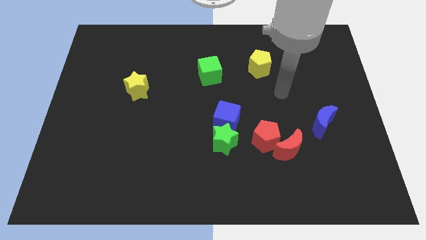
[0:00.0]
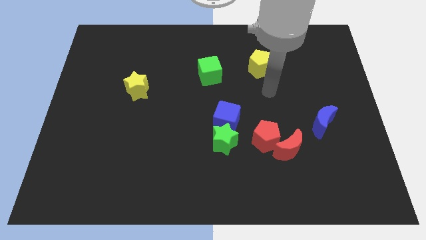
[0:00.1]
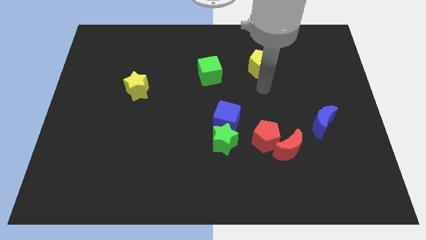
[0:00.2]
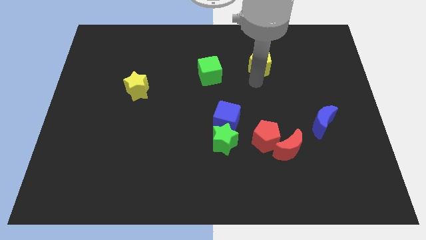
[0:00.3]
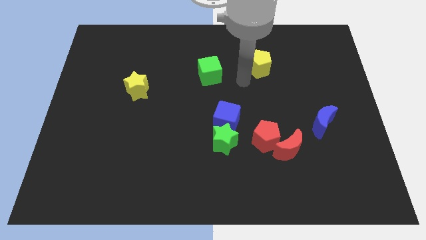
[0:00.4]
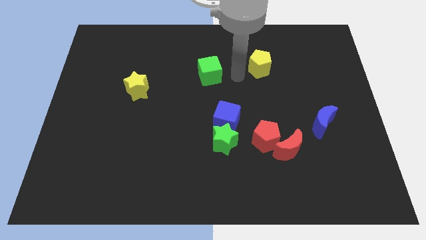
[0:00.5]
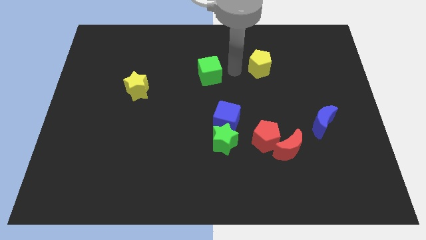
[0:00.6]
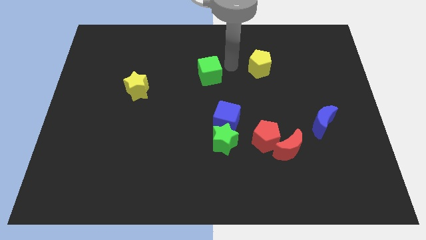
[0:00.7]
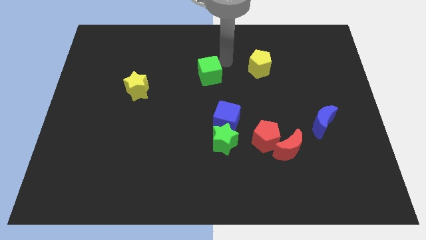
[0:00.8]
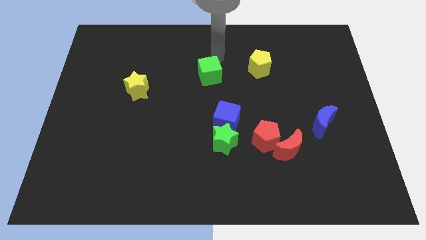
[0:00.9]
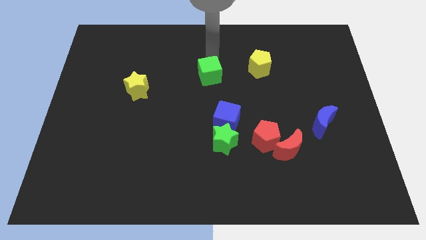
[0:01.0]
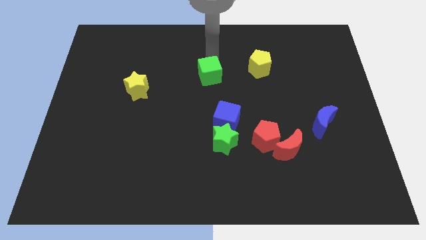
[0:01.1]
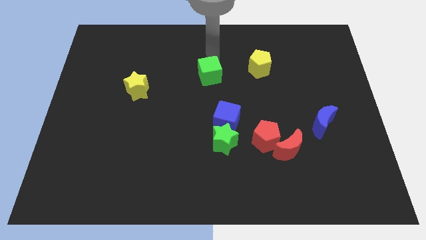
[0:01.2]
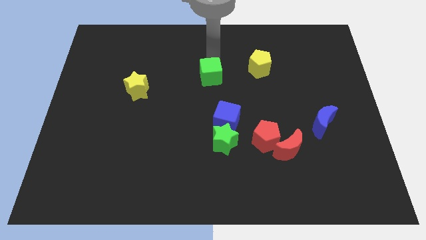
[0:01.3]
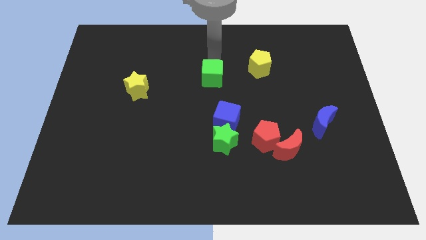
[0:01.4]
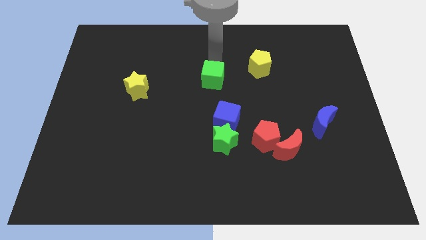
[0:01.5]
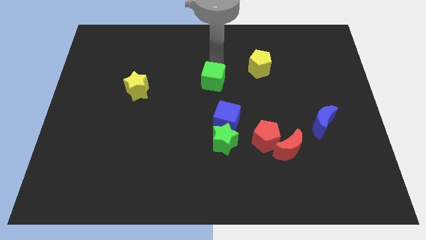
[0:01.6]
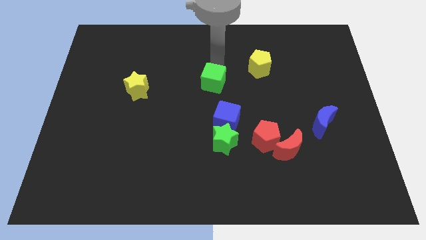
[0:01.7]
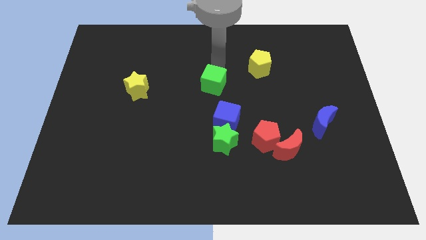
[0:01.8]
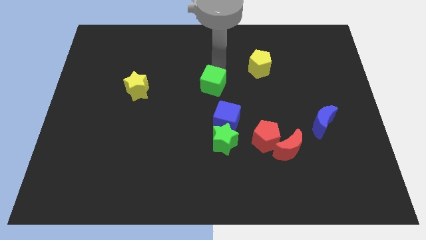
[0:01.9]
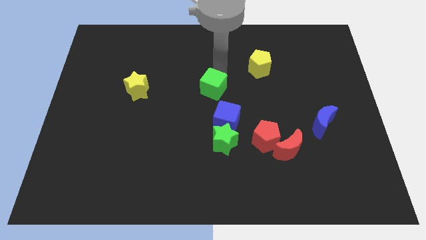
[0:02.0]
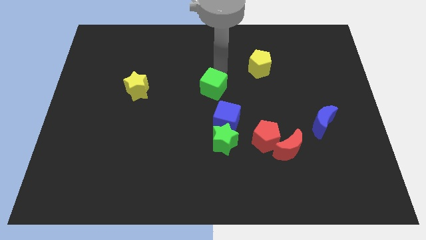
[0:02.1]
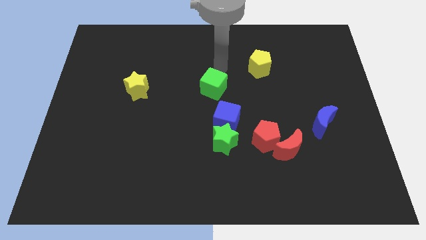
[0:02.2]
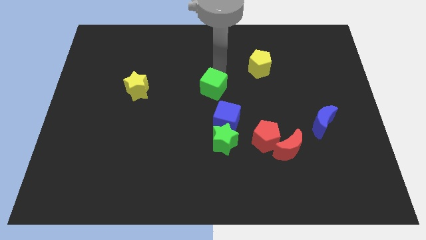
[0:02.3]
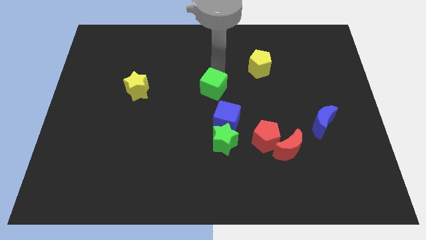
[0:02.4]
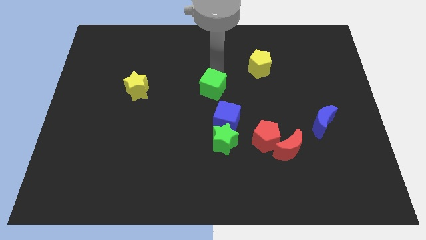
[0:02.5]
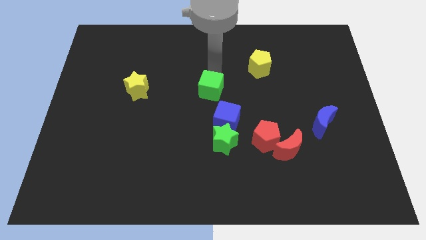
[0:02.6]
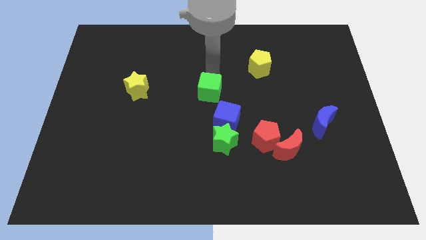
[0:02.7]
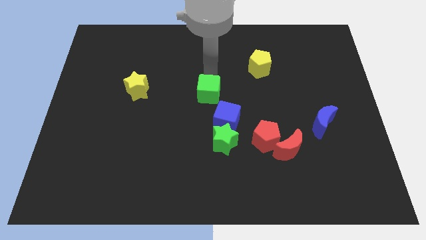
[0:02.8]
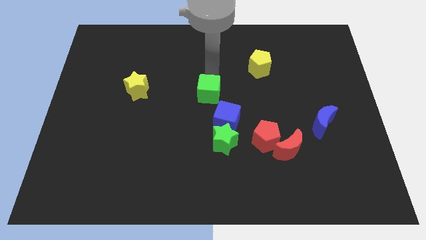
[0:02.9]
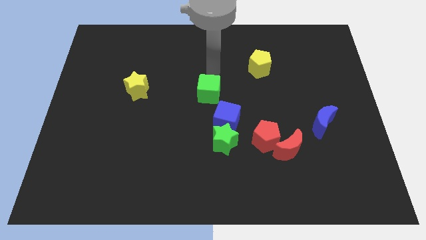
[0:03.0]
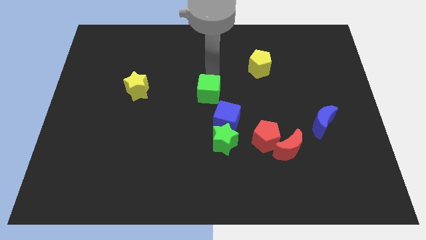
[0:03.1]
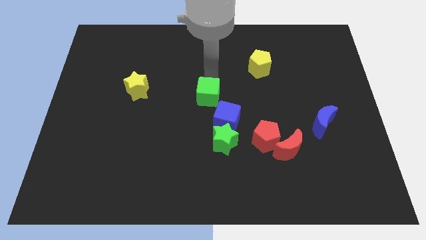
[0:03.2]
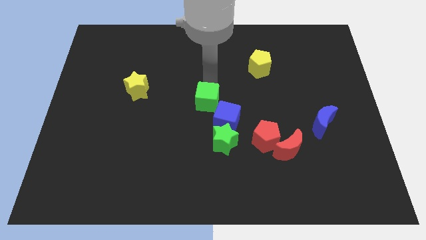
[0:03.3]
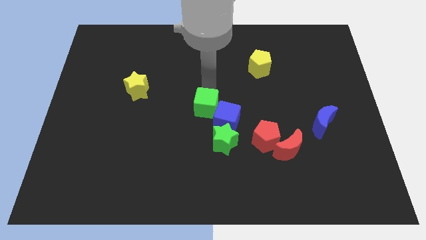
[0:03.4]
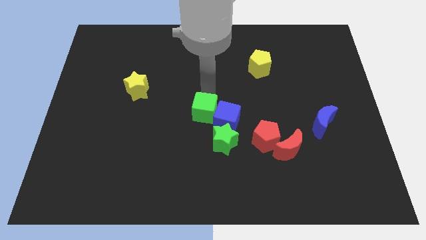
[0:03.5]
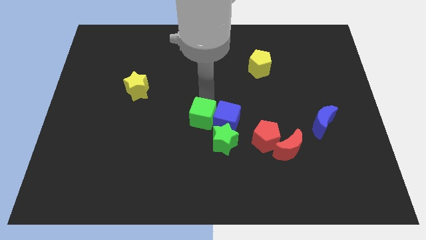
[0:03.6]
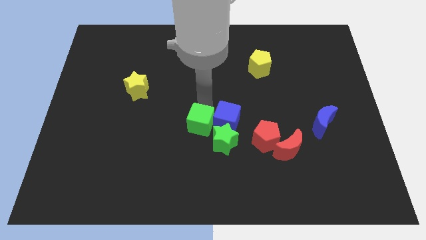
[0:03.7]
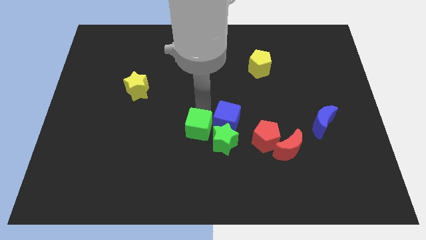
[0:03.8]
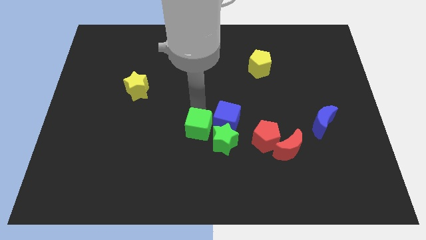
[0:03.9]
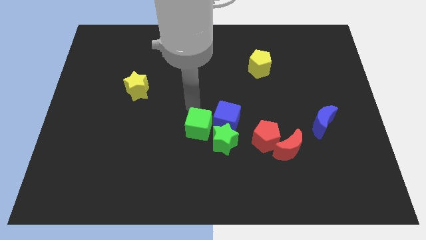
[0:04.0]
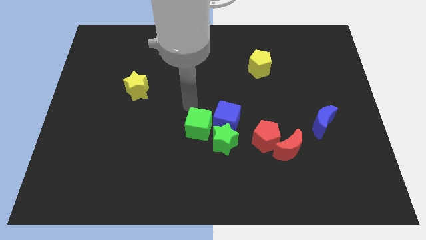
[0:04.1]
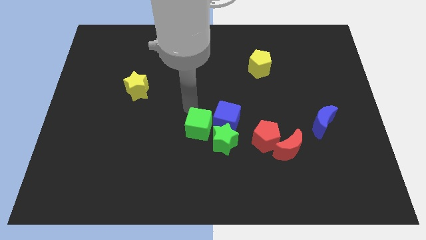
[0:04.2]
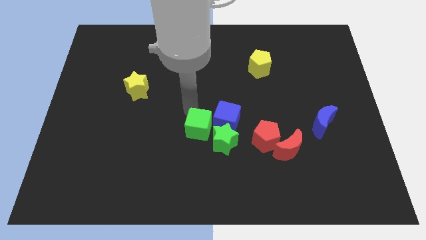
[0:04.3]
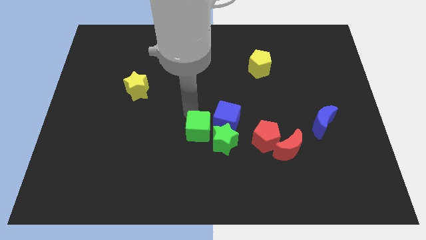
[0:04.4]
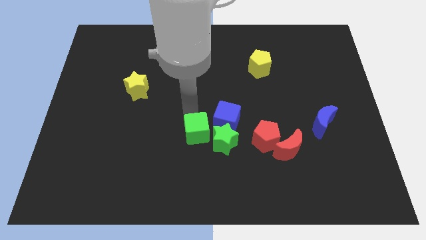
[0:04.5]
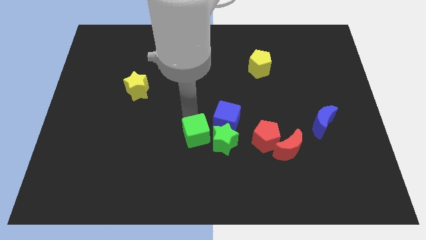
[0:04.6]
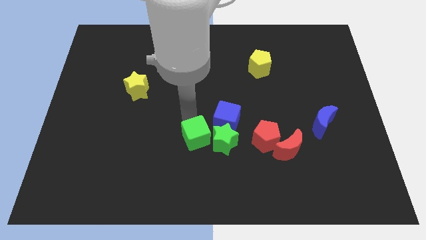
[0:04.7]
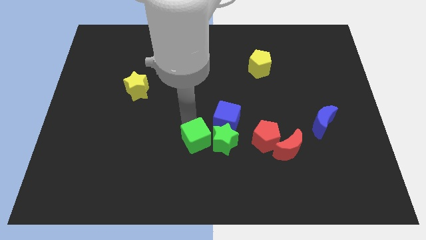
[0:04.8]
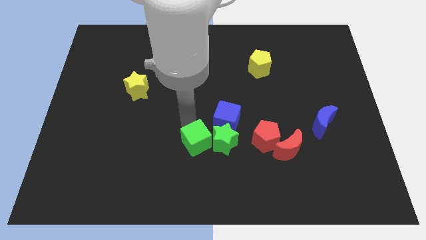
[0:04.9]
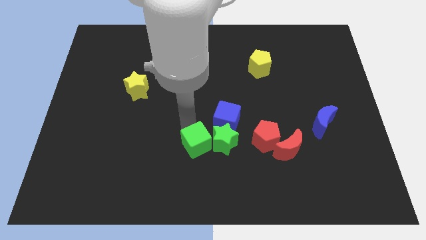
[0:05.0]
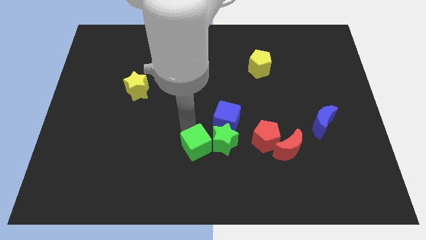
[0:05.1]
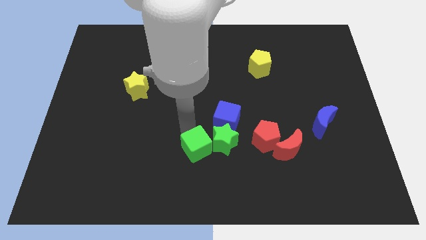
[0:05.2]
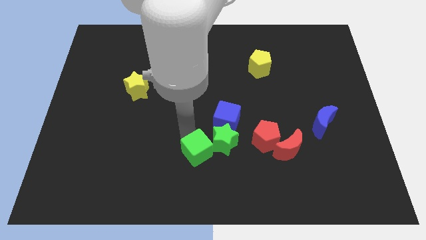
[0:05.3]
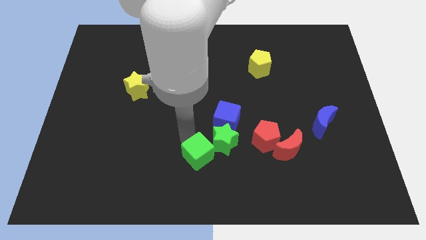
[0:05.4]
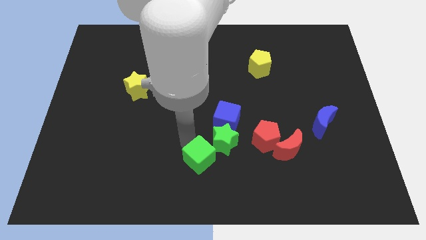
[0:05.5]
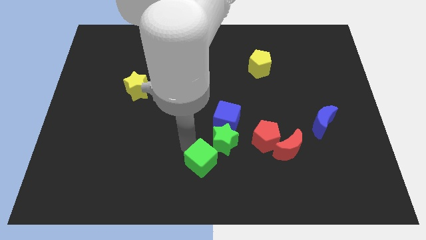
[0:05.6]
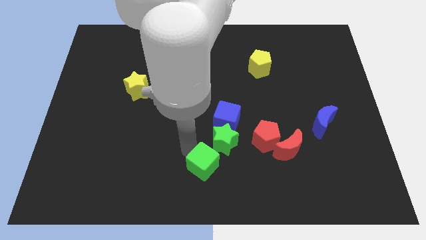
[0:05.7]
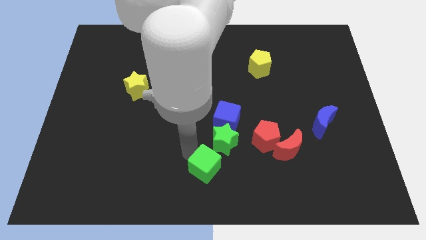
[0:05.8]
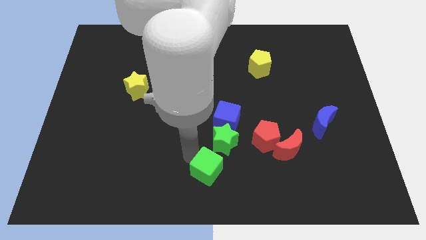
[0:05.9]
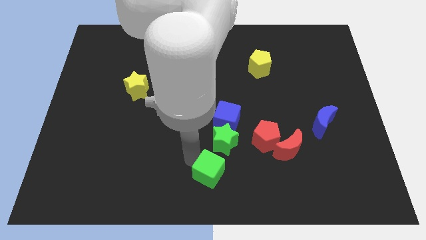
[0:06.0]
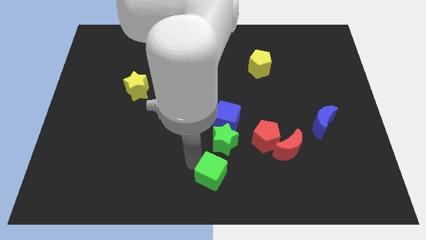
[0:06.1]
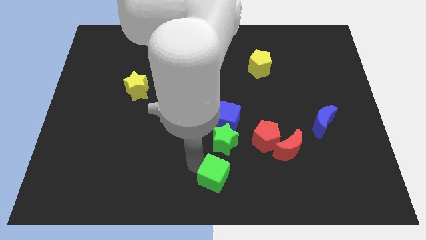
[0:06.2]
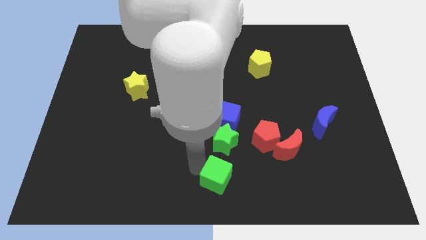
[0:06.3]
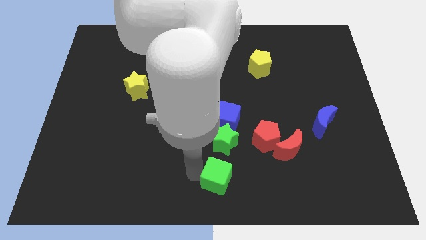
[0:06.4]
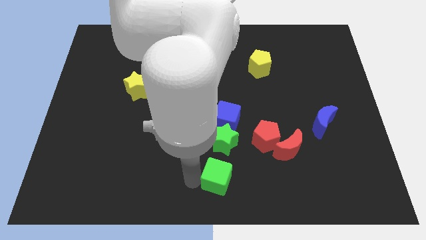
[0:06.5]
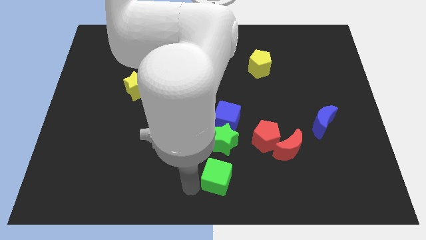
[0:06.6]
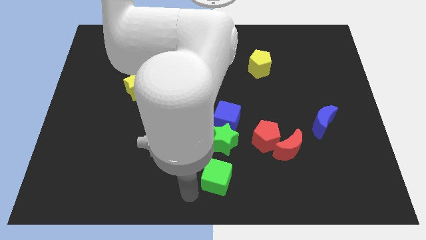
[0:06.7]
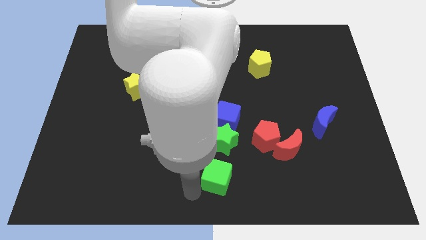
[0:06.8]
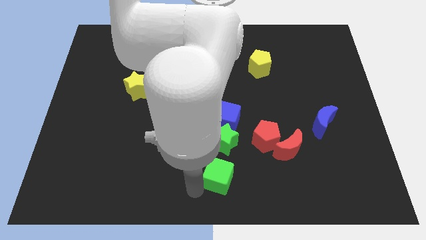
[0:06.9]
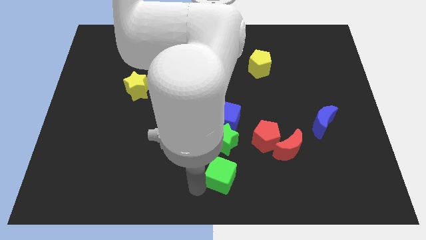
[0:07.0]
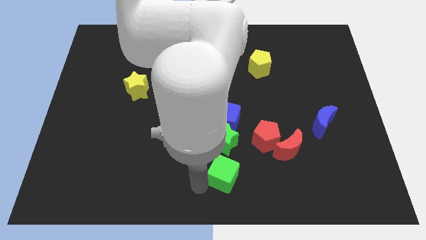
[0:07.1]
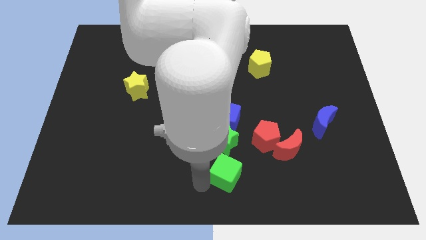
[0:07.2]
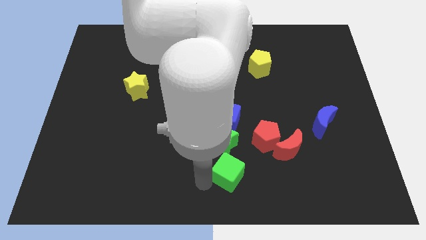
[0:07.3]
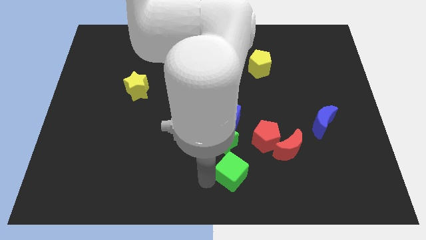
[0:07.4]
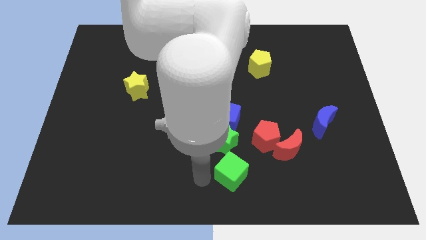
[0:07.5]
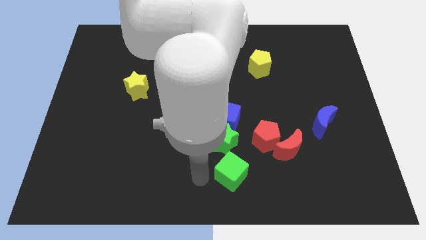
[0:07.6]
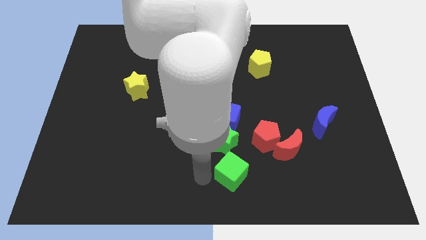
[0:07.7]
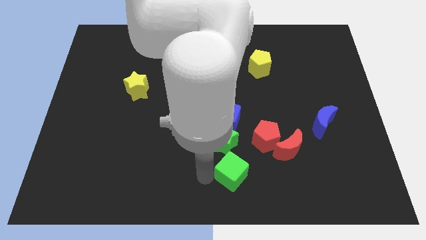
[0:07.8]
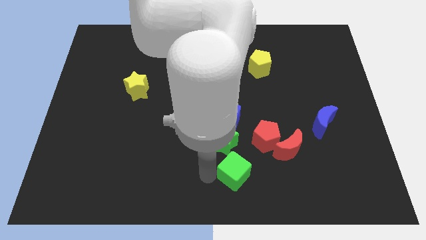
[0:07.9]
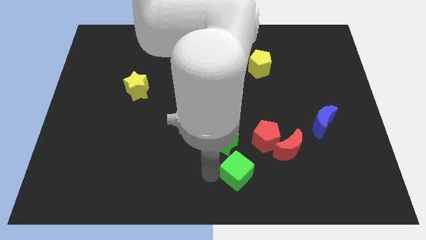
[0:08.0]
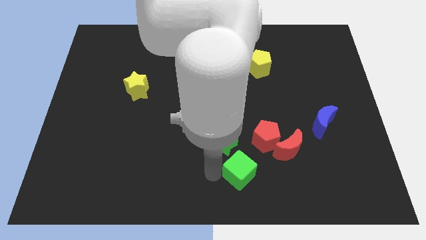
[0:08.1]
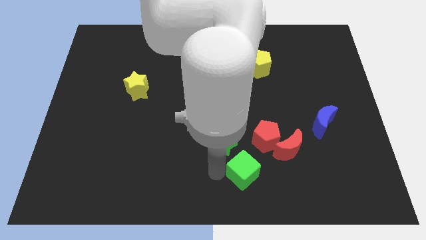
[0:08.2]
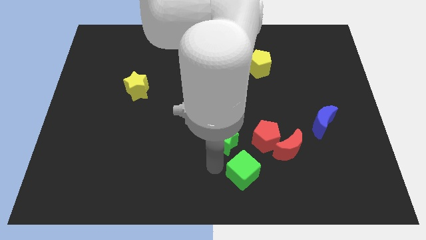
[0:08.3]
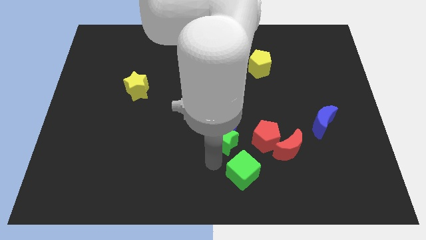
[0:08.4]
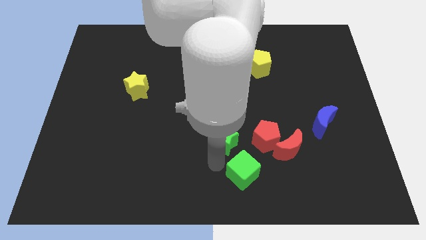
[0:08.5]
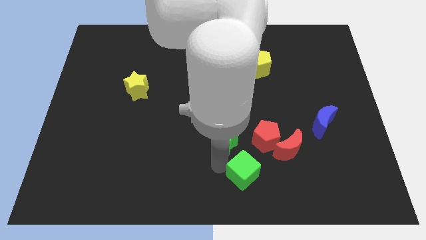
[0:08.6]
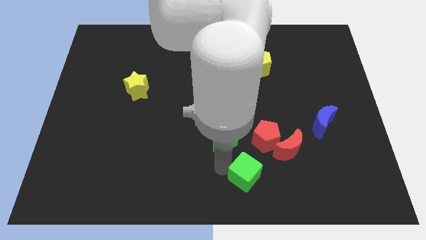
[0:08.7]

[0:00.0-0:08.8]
push the green cube to the bottom side of the red pentagon
